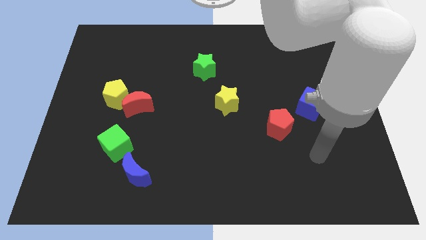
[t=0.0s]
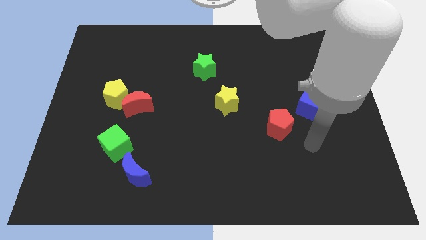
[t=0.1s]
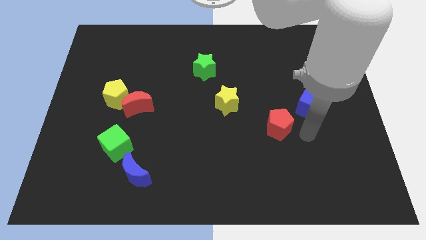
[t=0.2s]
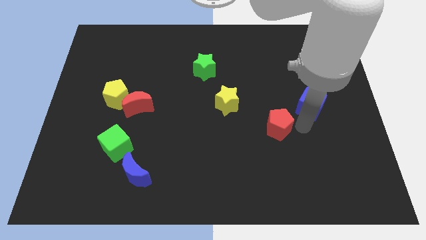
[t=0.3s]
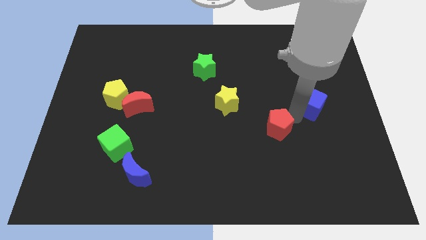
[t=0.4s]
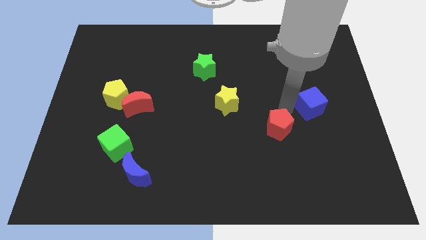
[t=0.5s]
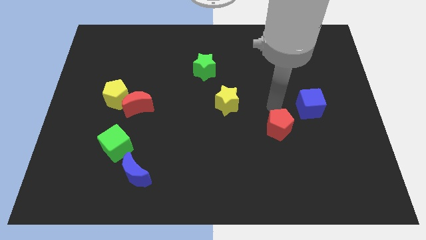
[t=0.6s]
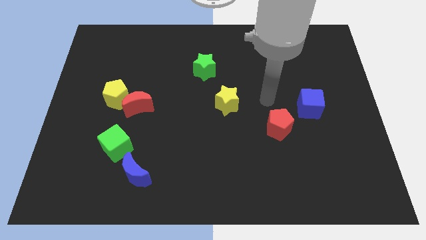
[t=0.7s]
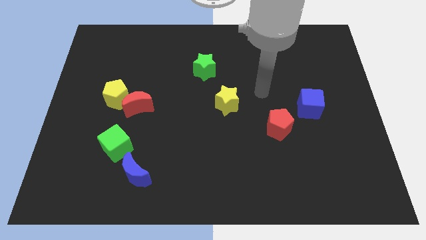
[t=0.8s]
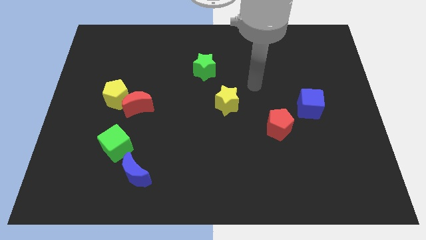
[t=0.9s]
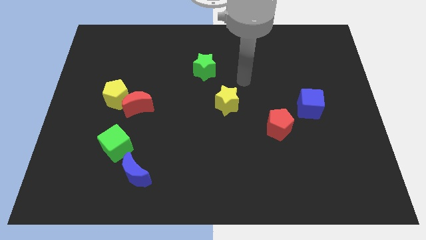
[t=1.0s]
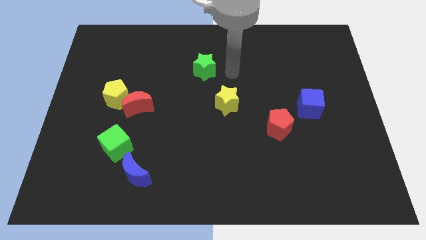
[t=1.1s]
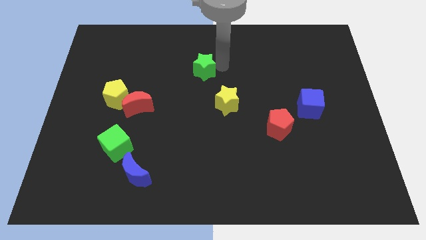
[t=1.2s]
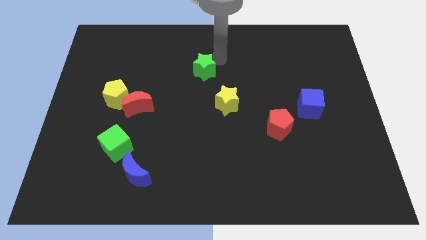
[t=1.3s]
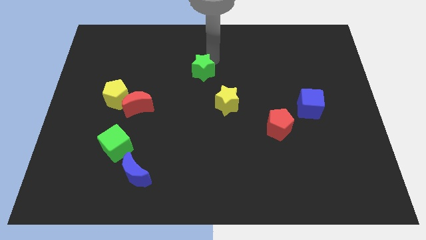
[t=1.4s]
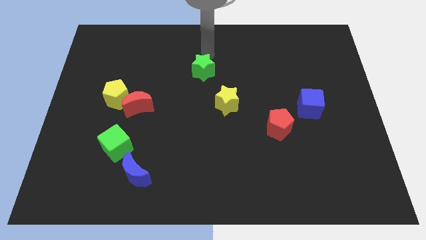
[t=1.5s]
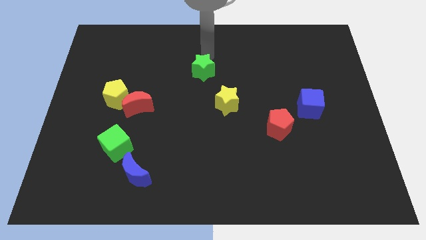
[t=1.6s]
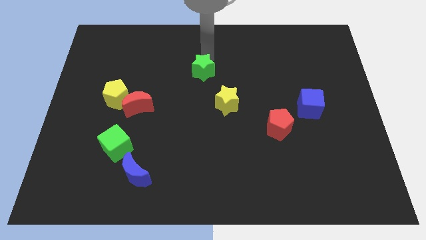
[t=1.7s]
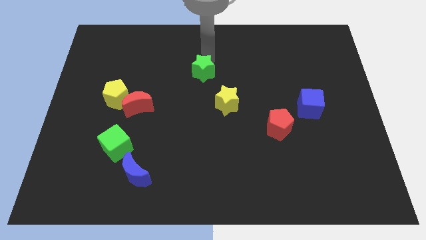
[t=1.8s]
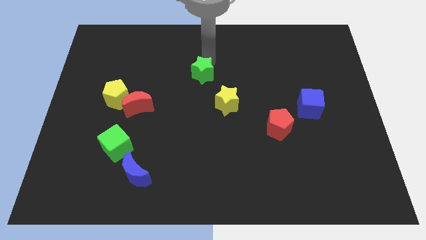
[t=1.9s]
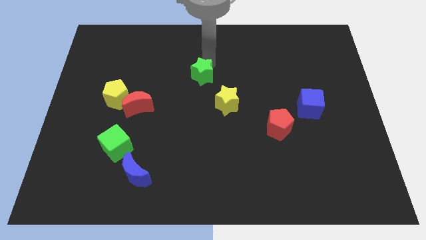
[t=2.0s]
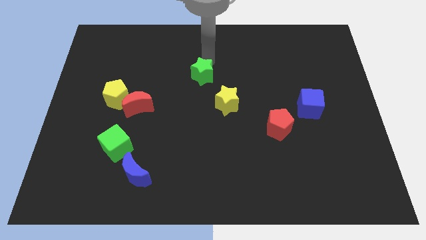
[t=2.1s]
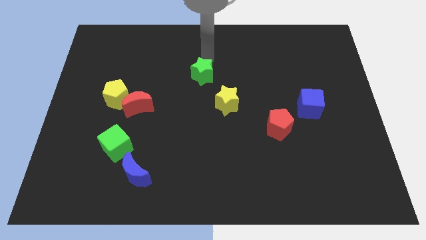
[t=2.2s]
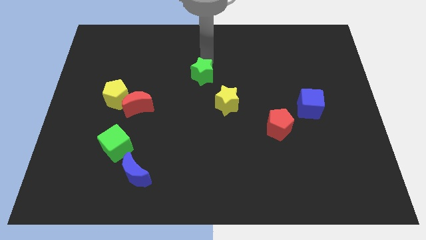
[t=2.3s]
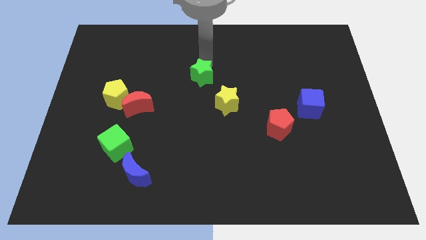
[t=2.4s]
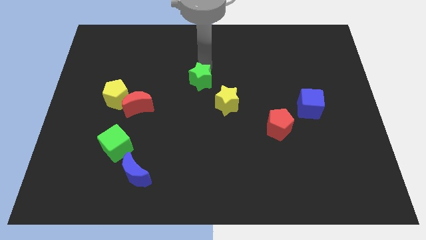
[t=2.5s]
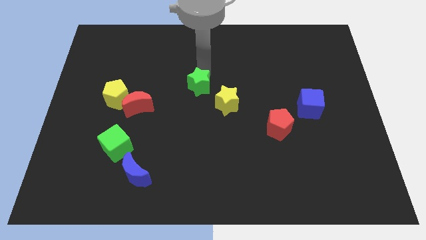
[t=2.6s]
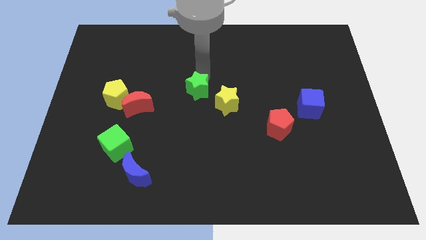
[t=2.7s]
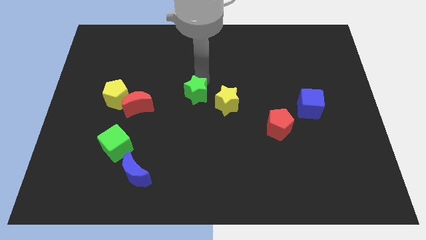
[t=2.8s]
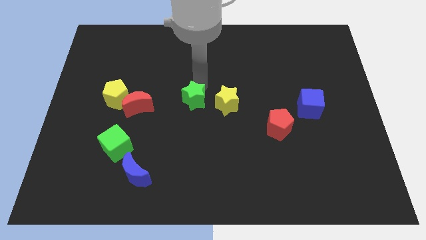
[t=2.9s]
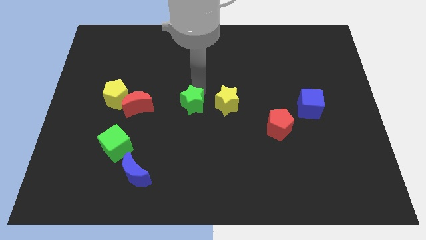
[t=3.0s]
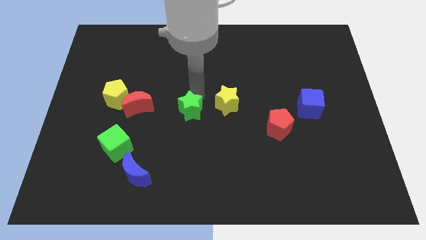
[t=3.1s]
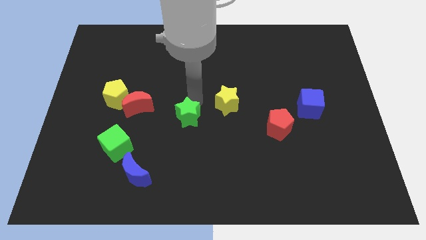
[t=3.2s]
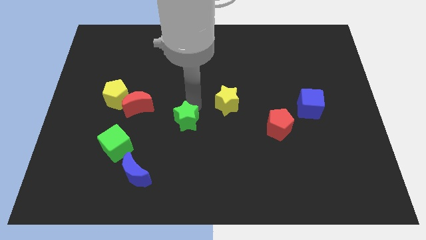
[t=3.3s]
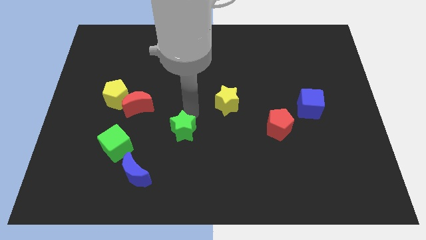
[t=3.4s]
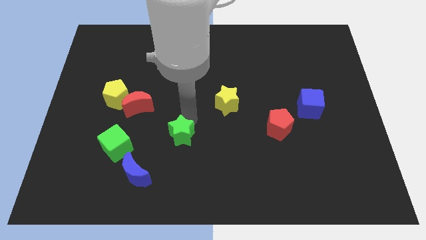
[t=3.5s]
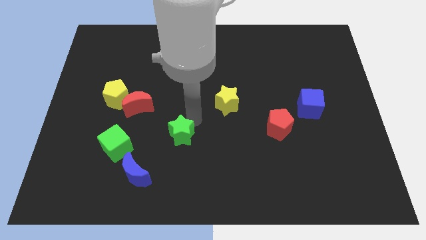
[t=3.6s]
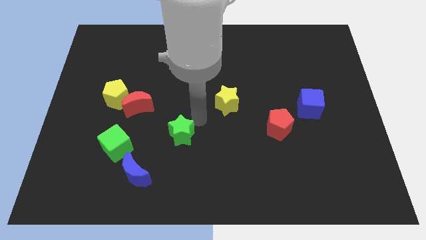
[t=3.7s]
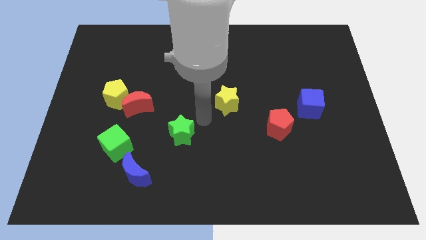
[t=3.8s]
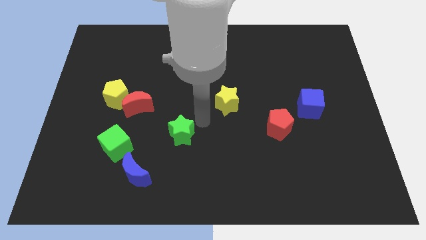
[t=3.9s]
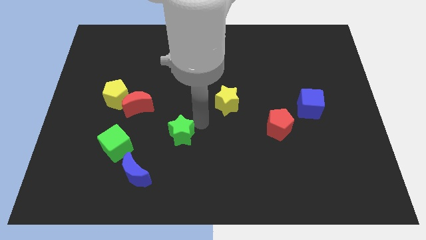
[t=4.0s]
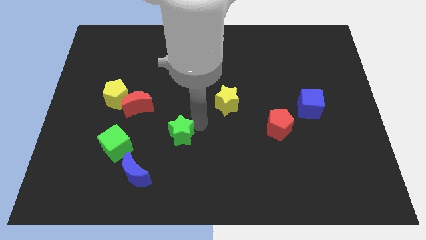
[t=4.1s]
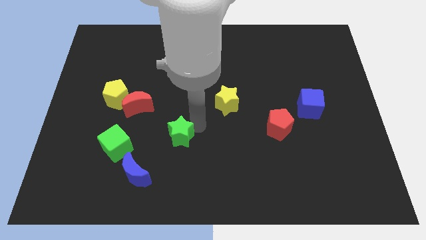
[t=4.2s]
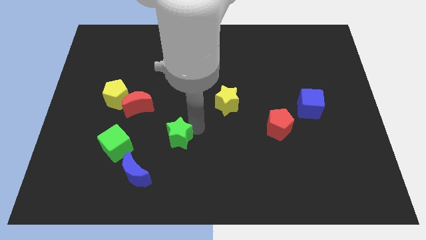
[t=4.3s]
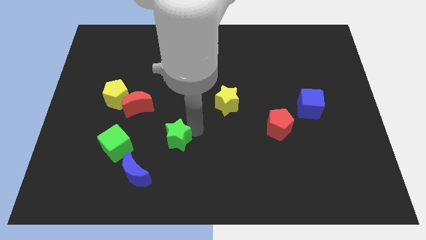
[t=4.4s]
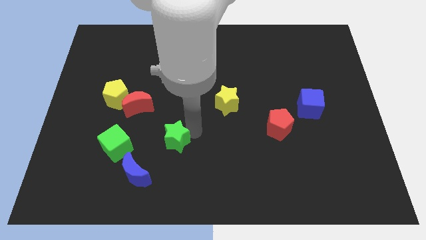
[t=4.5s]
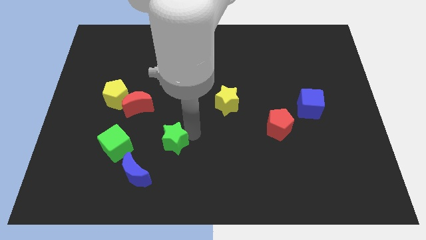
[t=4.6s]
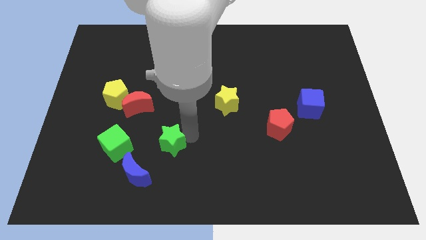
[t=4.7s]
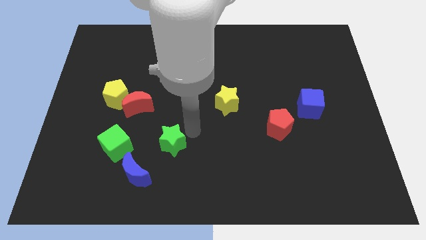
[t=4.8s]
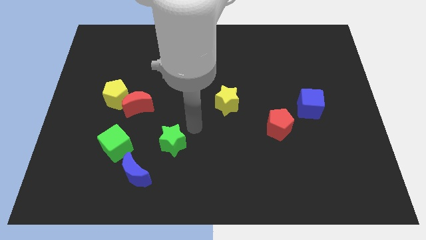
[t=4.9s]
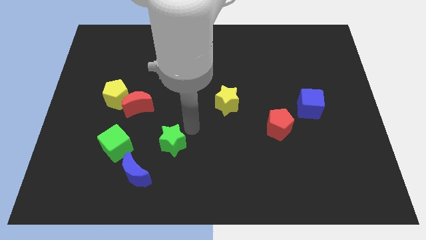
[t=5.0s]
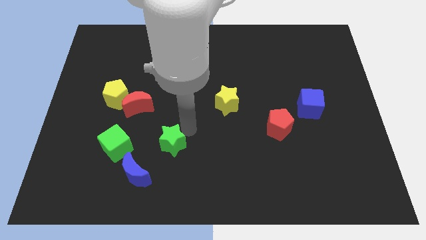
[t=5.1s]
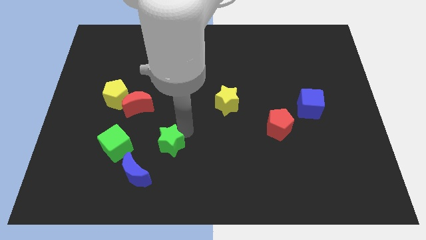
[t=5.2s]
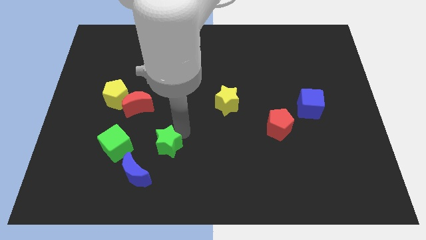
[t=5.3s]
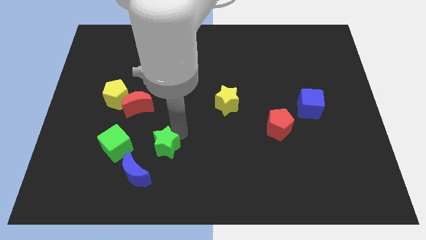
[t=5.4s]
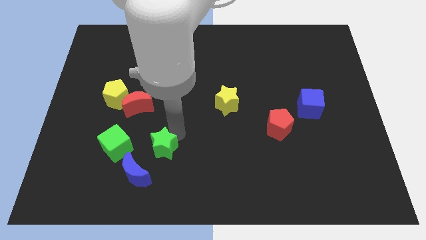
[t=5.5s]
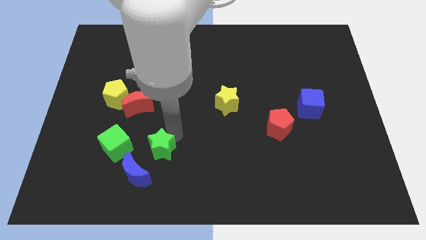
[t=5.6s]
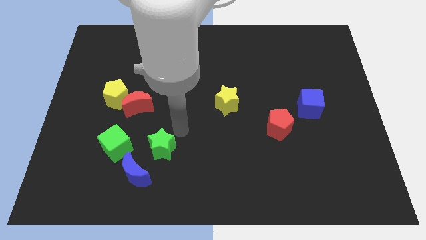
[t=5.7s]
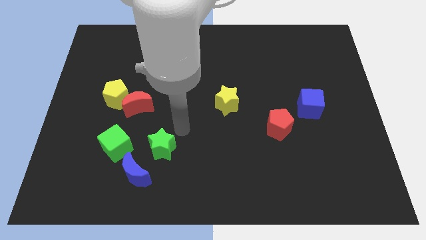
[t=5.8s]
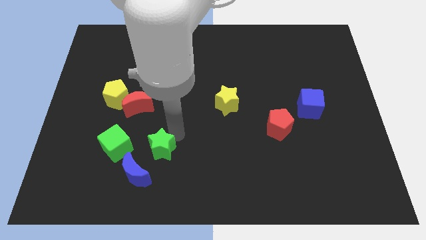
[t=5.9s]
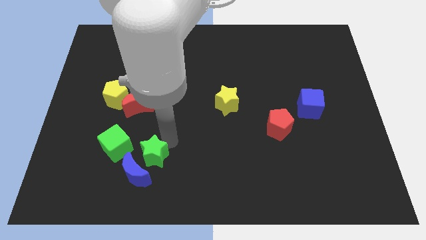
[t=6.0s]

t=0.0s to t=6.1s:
move the green star to the blue moon
